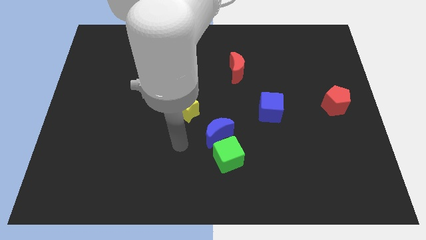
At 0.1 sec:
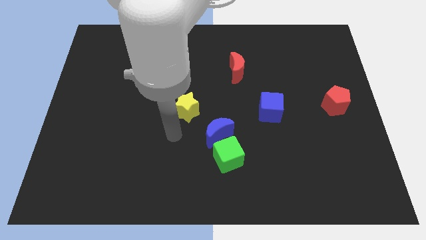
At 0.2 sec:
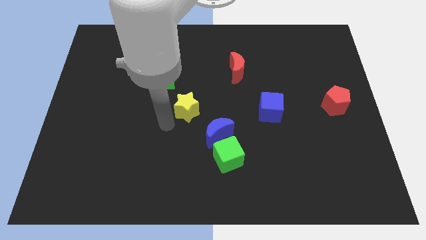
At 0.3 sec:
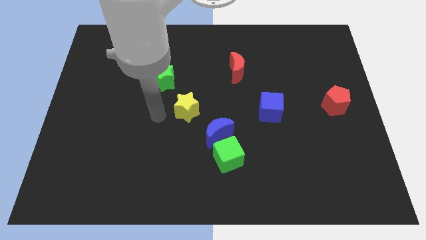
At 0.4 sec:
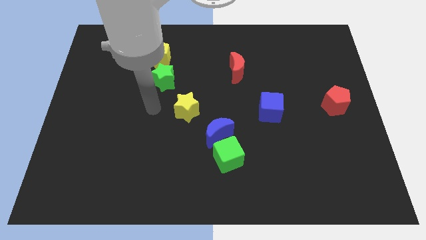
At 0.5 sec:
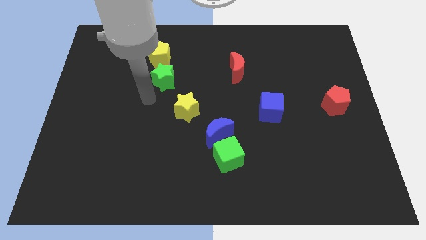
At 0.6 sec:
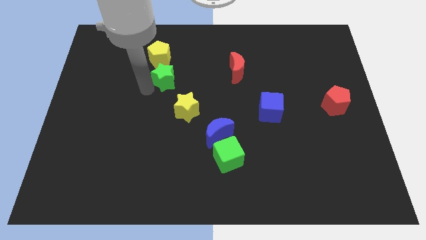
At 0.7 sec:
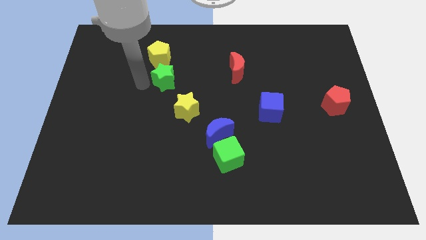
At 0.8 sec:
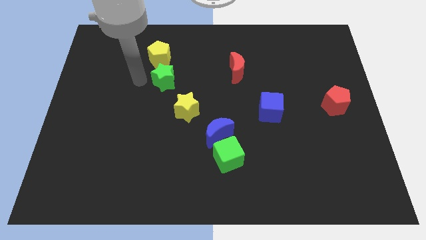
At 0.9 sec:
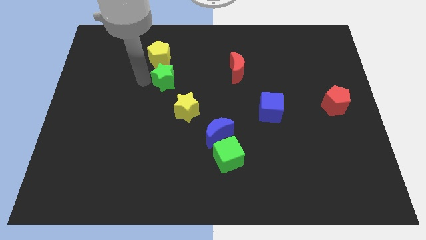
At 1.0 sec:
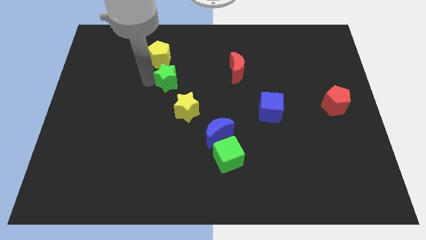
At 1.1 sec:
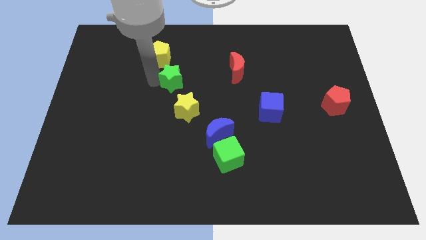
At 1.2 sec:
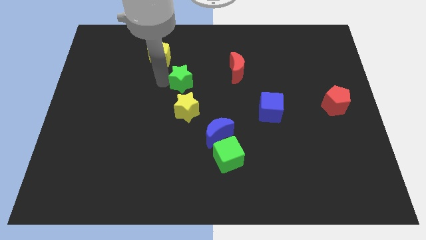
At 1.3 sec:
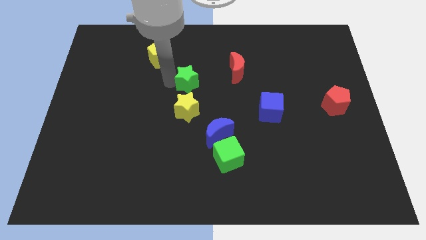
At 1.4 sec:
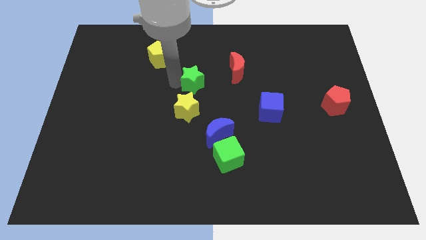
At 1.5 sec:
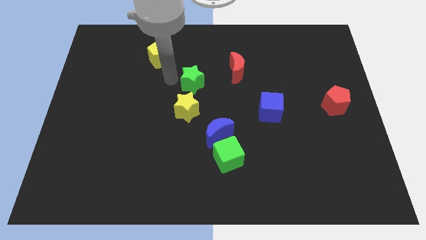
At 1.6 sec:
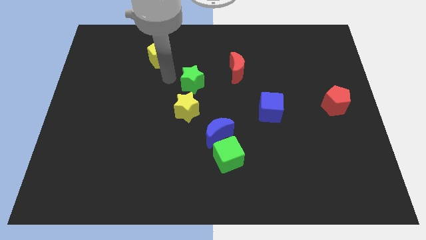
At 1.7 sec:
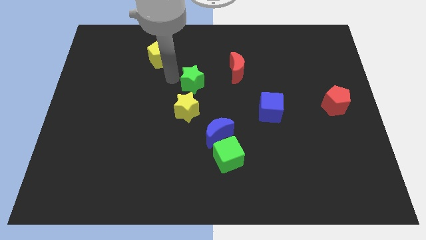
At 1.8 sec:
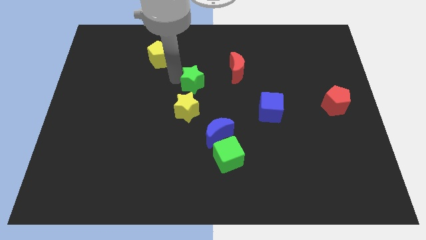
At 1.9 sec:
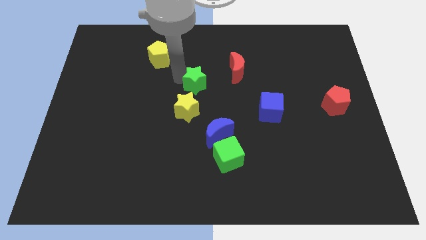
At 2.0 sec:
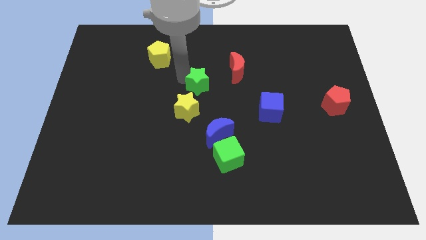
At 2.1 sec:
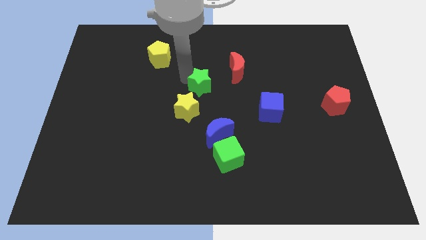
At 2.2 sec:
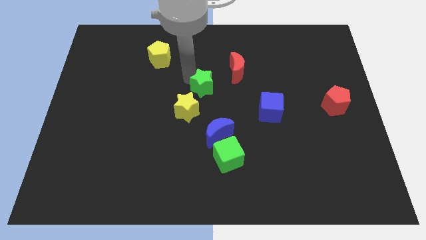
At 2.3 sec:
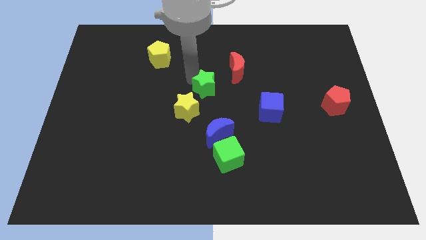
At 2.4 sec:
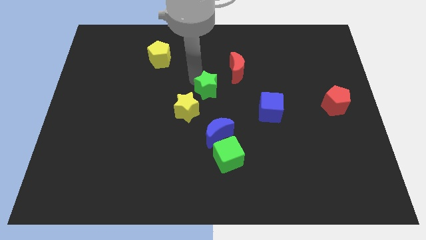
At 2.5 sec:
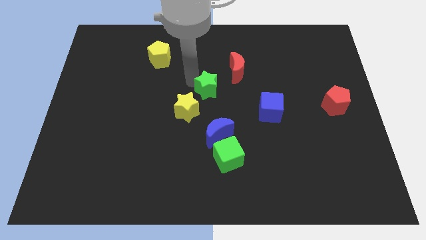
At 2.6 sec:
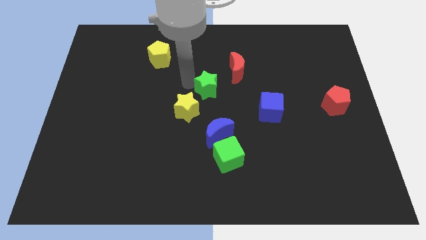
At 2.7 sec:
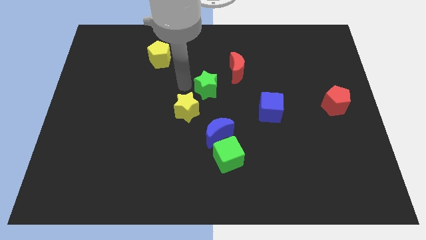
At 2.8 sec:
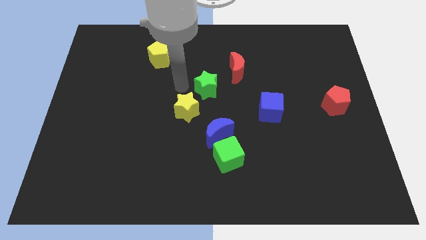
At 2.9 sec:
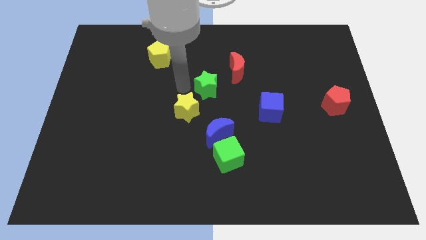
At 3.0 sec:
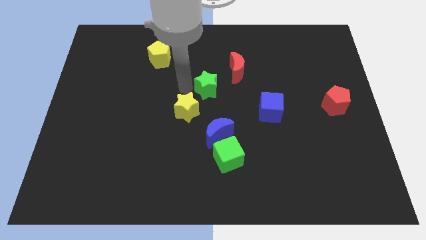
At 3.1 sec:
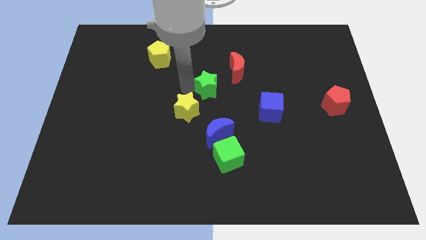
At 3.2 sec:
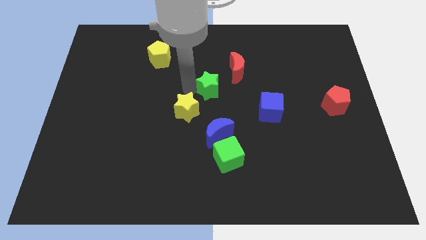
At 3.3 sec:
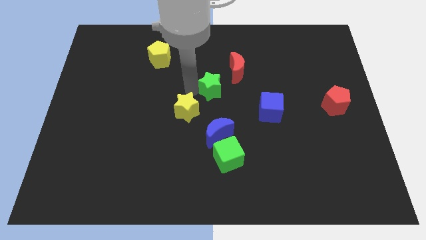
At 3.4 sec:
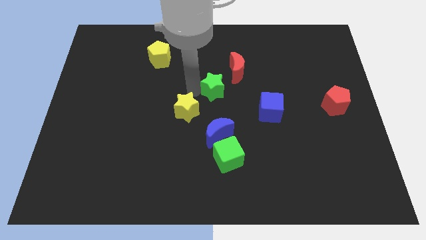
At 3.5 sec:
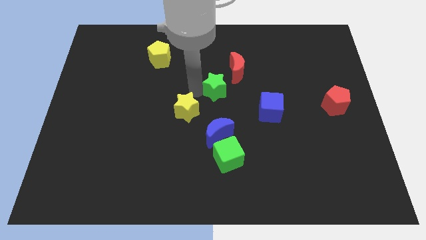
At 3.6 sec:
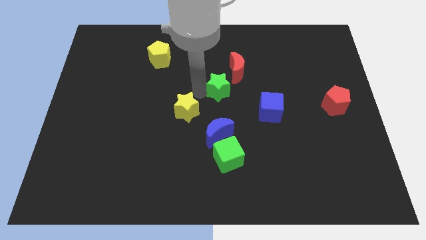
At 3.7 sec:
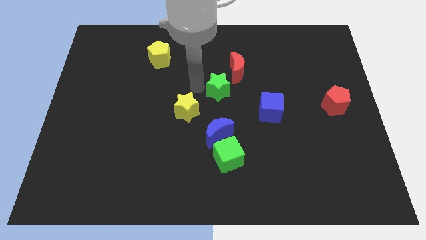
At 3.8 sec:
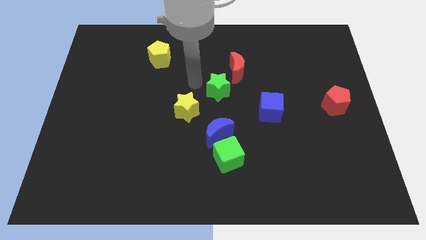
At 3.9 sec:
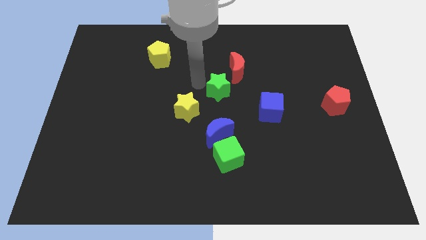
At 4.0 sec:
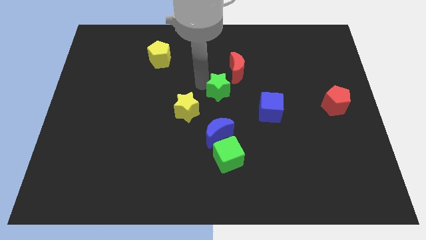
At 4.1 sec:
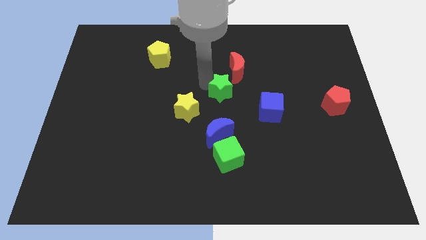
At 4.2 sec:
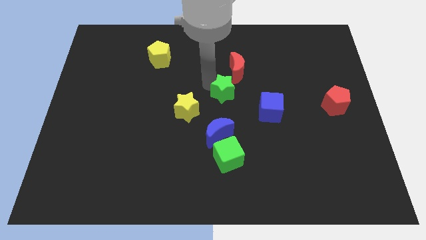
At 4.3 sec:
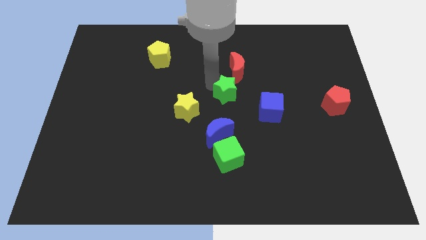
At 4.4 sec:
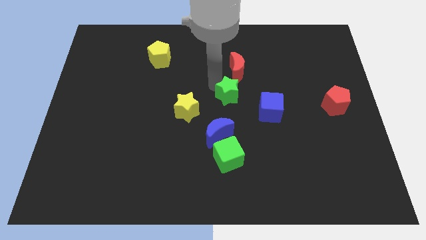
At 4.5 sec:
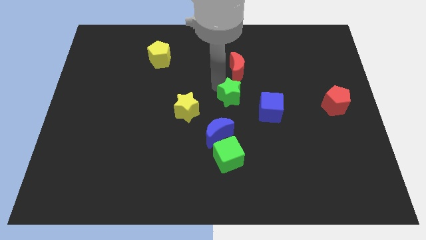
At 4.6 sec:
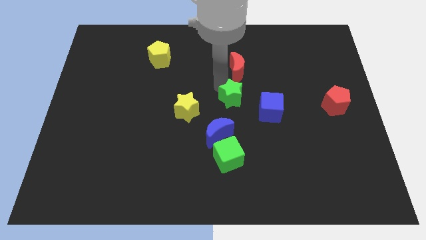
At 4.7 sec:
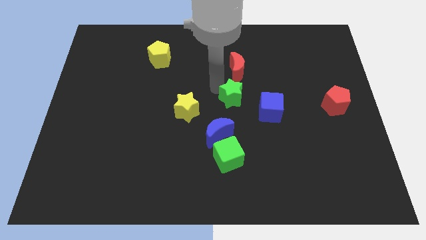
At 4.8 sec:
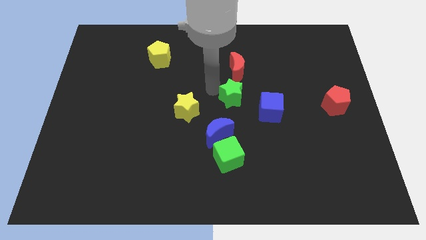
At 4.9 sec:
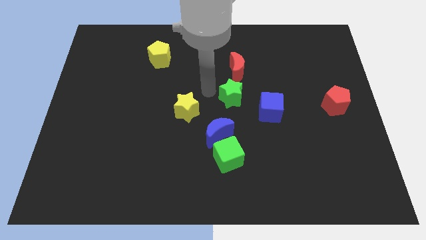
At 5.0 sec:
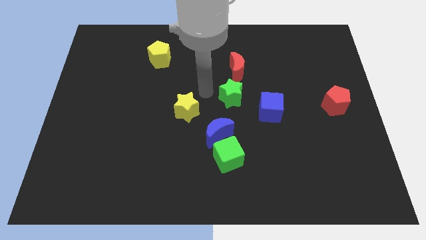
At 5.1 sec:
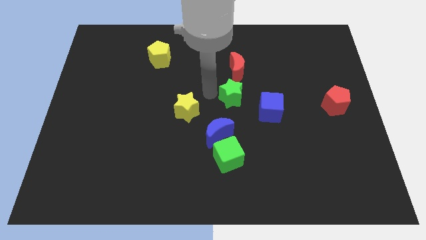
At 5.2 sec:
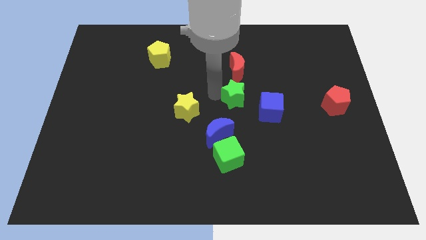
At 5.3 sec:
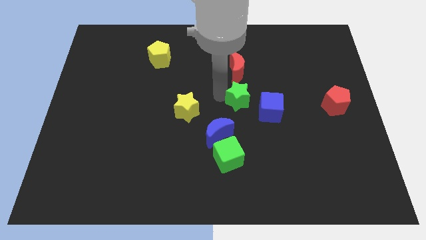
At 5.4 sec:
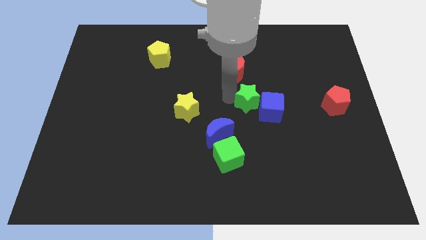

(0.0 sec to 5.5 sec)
put the green star next to the blue cube

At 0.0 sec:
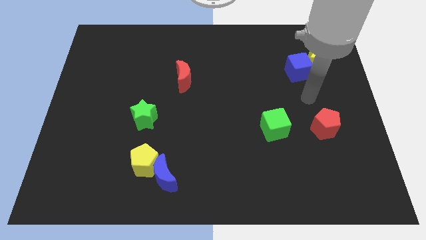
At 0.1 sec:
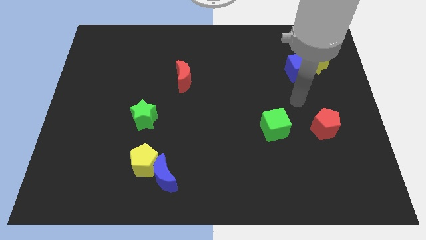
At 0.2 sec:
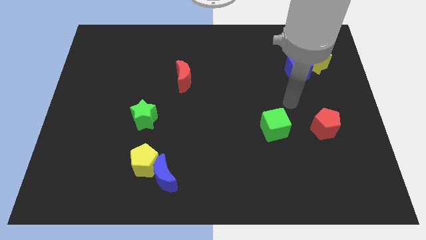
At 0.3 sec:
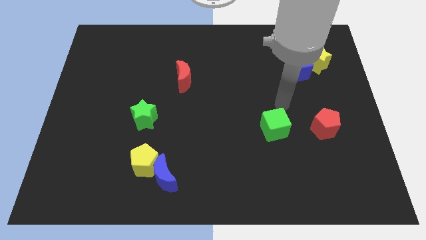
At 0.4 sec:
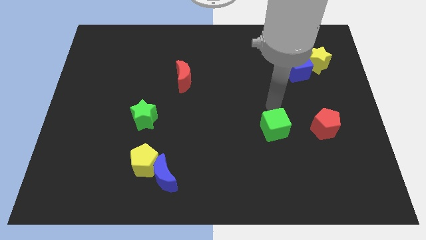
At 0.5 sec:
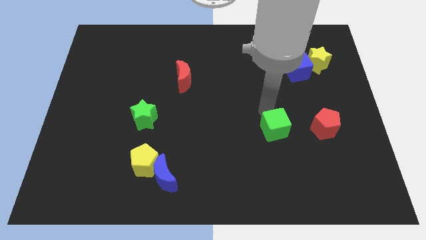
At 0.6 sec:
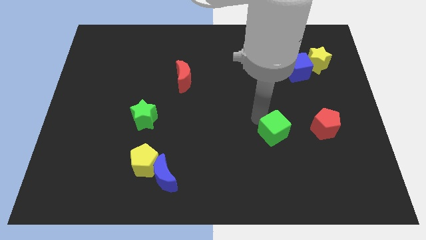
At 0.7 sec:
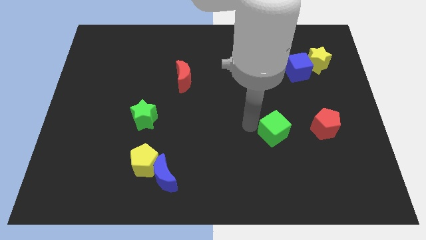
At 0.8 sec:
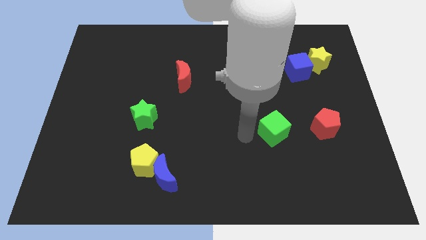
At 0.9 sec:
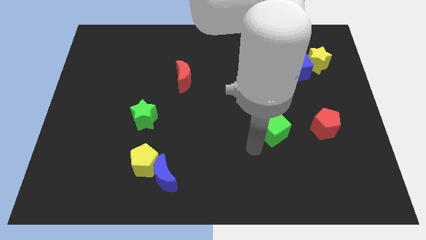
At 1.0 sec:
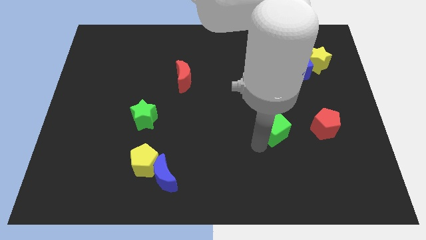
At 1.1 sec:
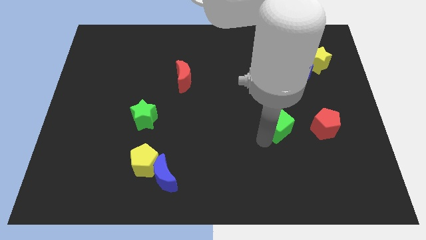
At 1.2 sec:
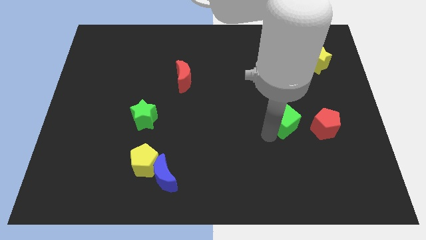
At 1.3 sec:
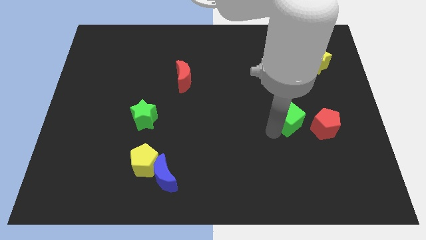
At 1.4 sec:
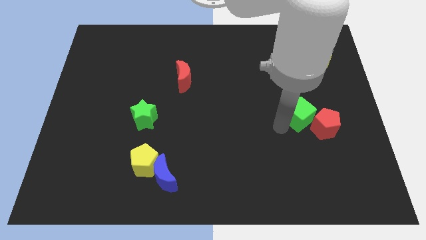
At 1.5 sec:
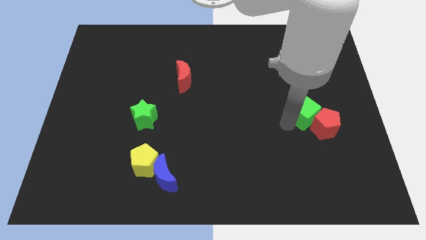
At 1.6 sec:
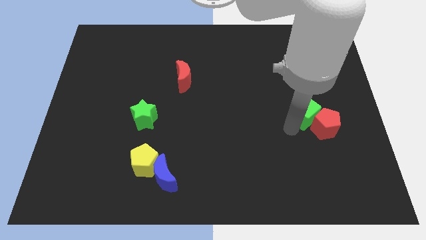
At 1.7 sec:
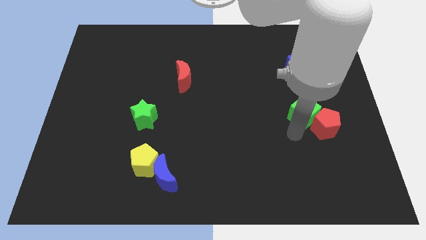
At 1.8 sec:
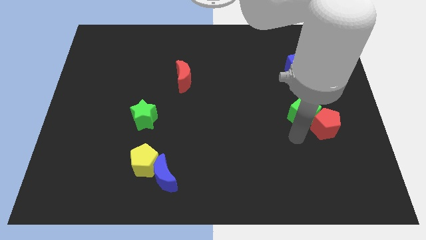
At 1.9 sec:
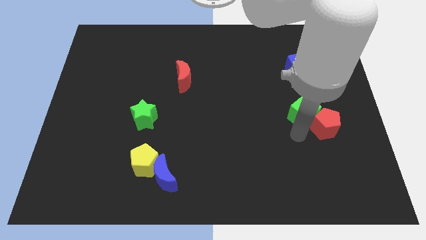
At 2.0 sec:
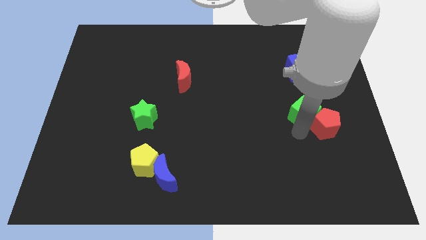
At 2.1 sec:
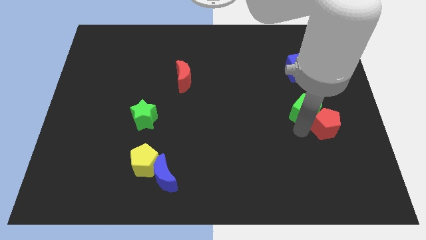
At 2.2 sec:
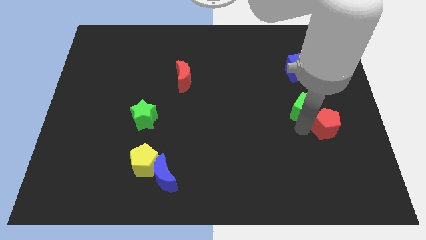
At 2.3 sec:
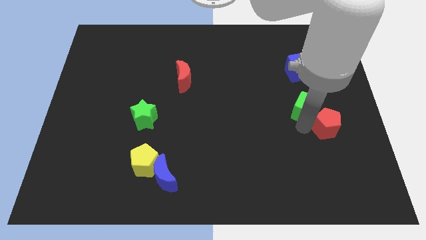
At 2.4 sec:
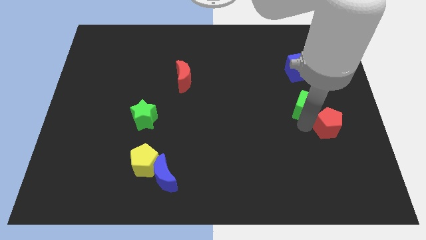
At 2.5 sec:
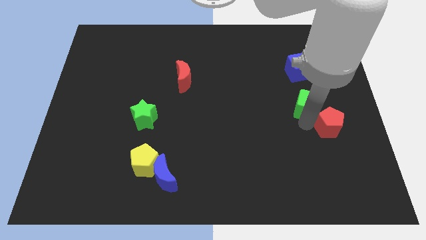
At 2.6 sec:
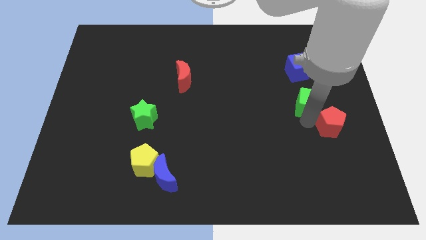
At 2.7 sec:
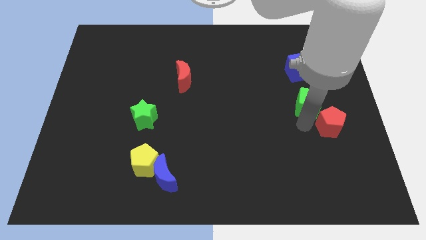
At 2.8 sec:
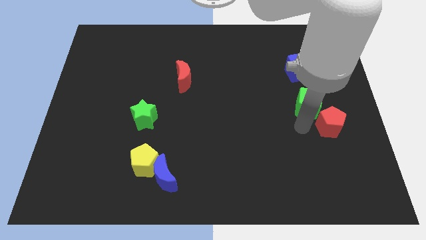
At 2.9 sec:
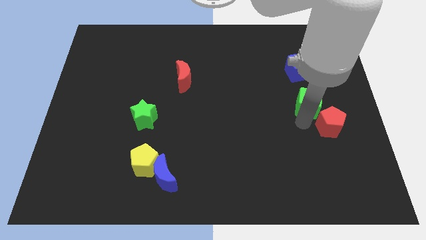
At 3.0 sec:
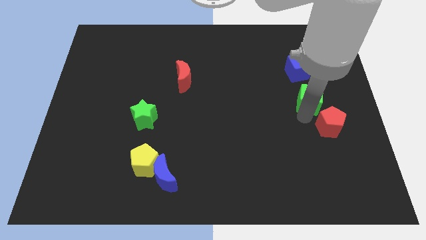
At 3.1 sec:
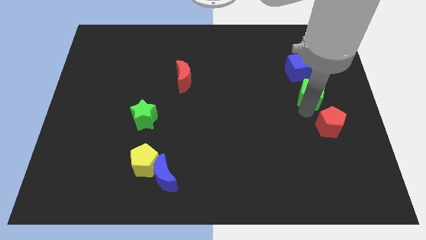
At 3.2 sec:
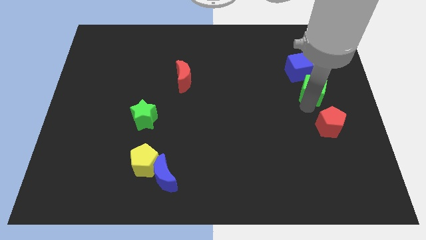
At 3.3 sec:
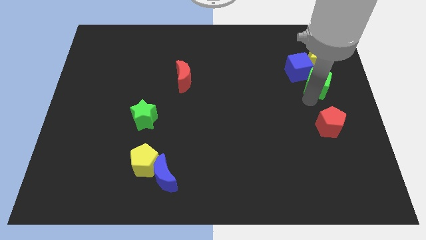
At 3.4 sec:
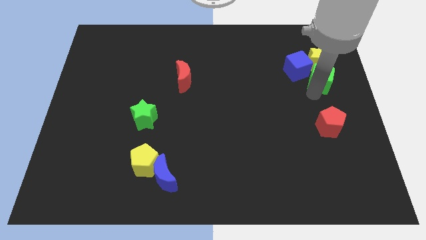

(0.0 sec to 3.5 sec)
move the green cube next to the yellow star
